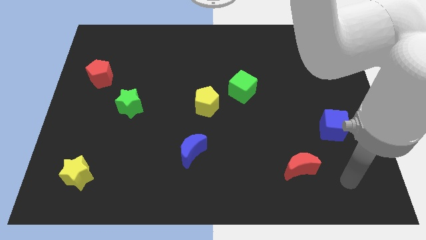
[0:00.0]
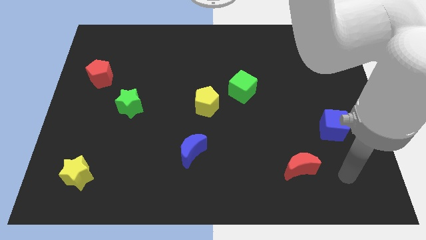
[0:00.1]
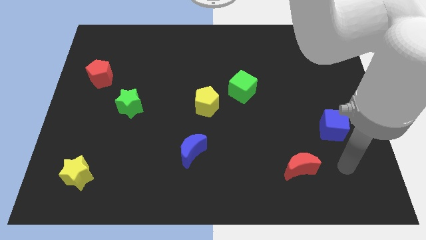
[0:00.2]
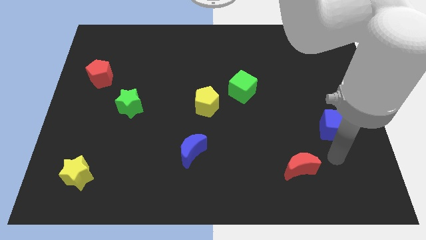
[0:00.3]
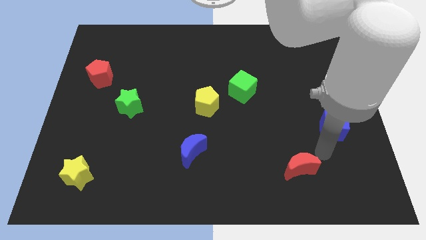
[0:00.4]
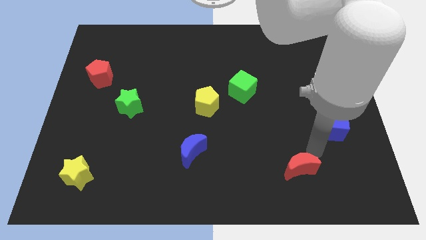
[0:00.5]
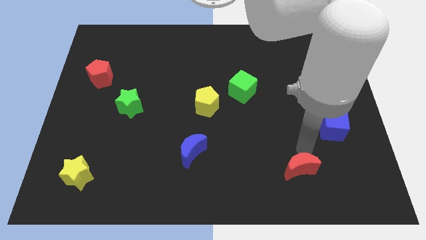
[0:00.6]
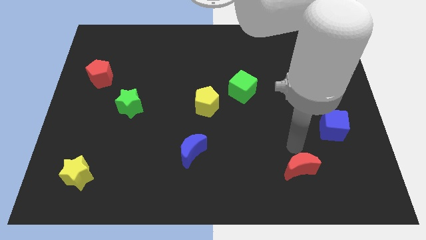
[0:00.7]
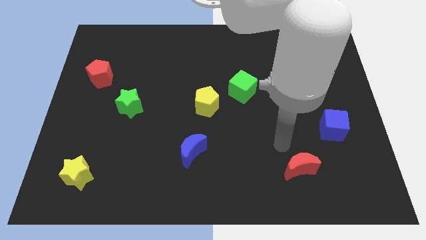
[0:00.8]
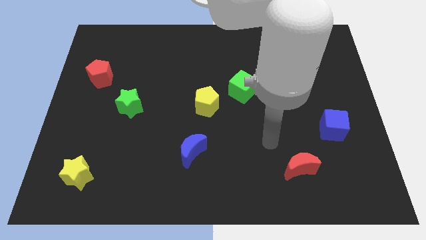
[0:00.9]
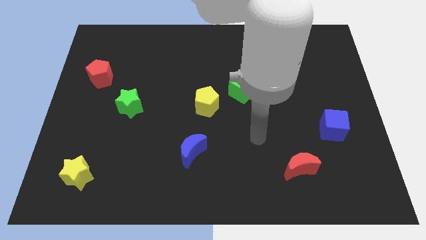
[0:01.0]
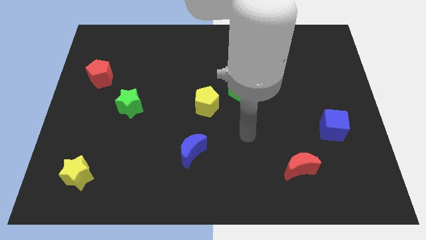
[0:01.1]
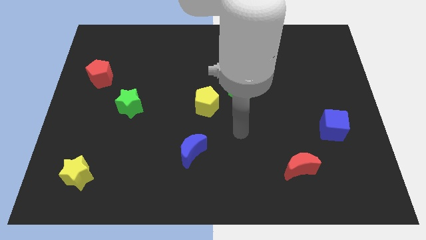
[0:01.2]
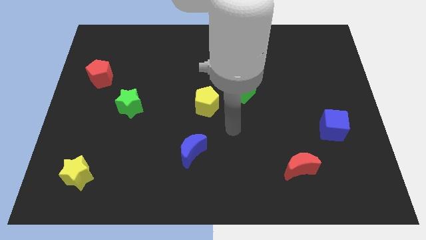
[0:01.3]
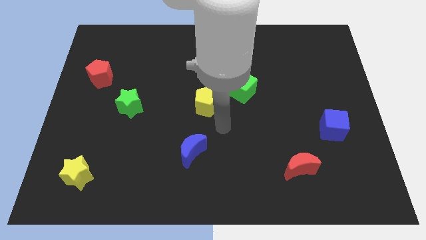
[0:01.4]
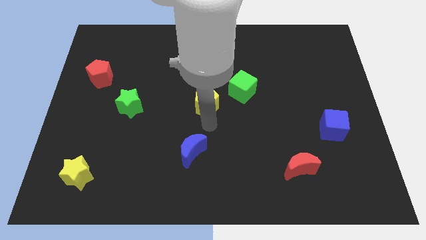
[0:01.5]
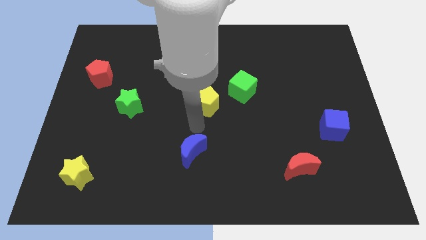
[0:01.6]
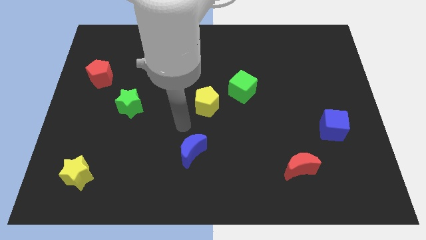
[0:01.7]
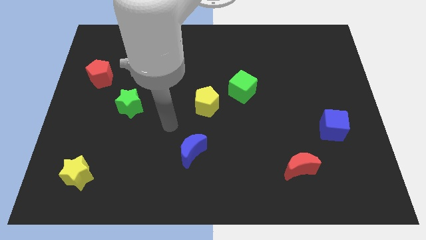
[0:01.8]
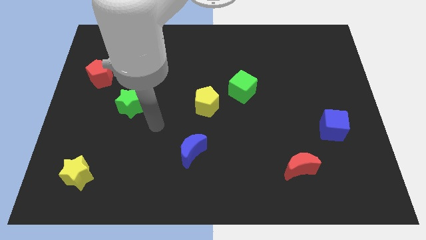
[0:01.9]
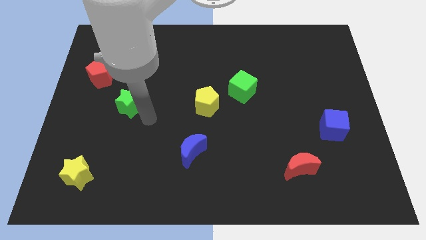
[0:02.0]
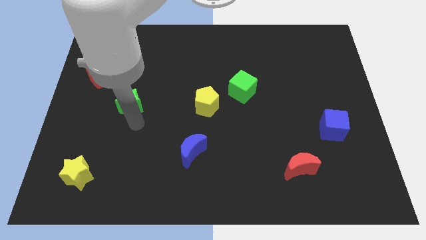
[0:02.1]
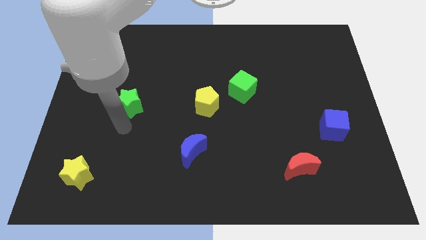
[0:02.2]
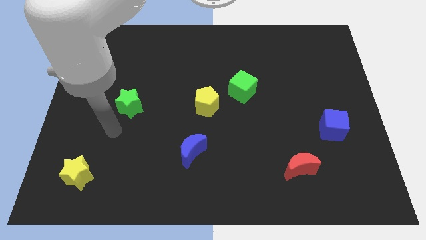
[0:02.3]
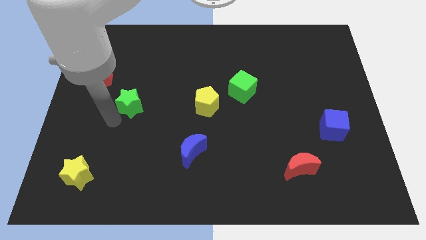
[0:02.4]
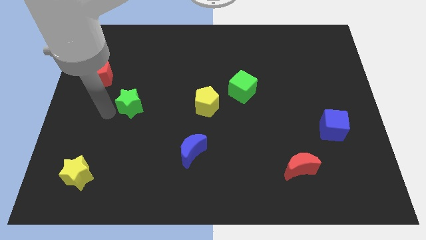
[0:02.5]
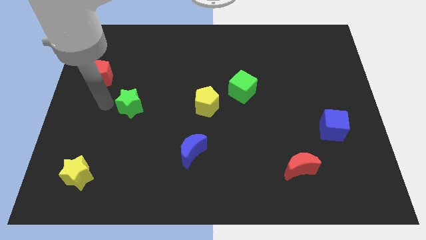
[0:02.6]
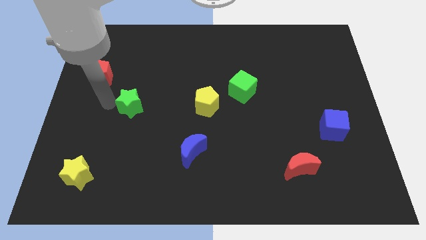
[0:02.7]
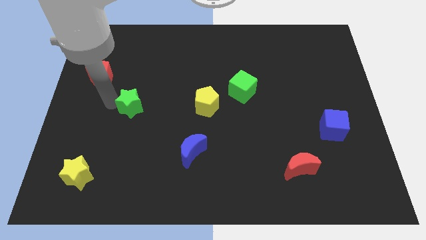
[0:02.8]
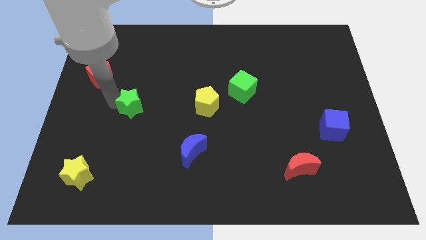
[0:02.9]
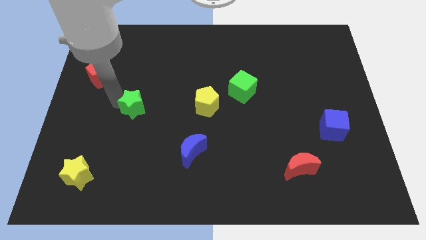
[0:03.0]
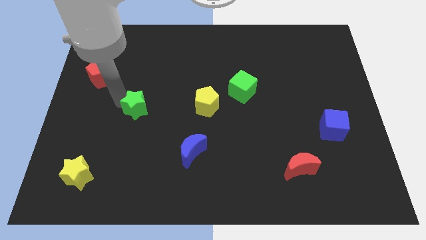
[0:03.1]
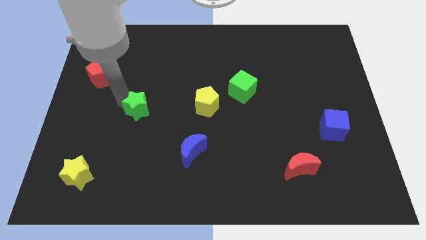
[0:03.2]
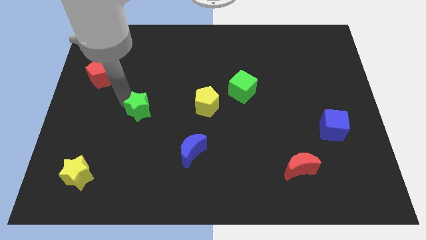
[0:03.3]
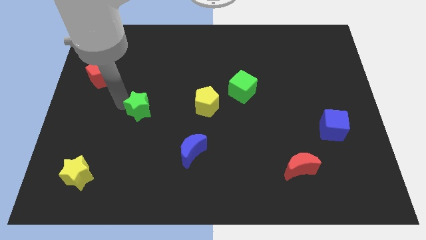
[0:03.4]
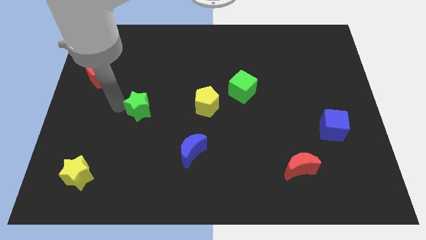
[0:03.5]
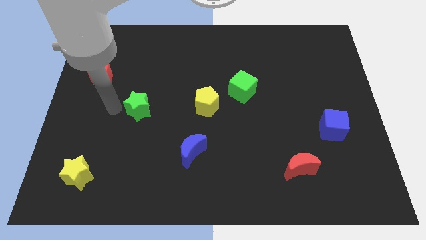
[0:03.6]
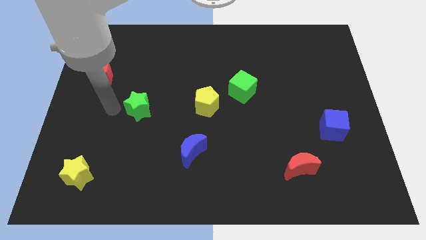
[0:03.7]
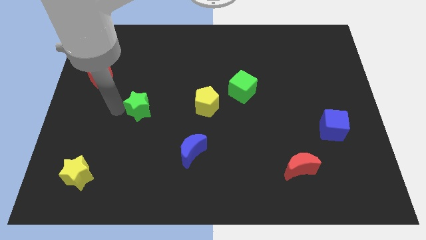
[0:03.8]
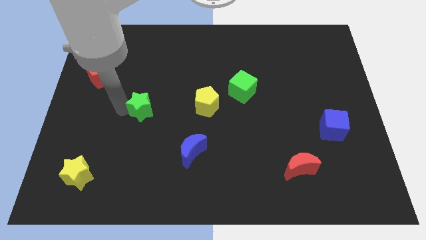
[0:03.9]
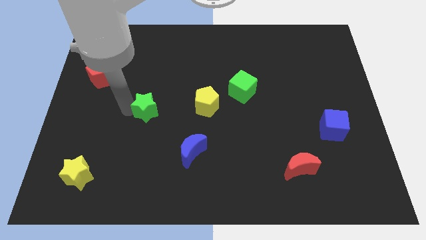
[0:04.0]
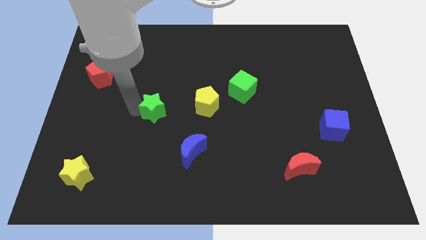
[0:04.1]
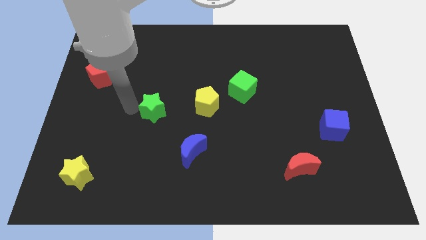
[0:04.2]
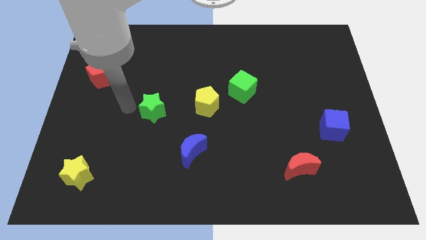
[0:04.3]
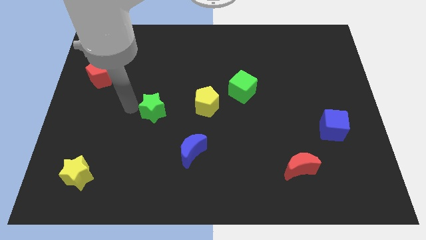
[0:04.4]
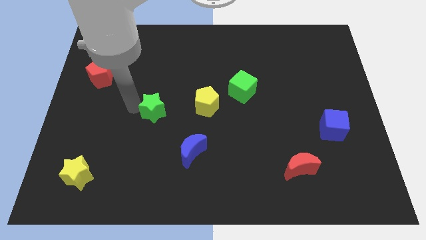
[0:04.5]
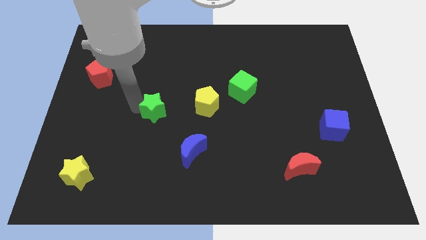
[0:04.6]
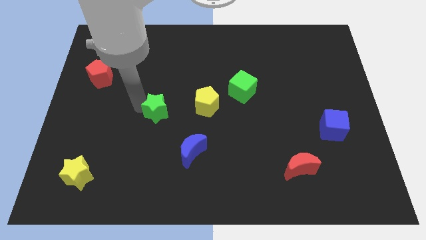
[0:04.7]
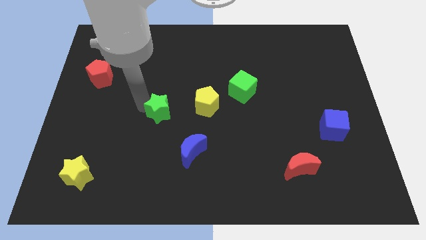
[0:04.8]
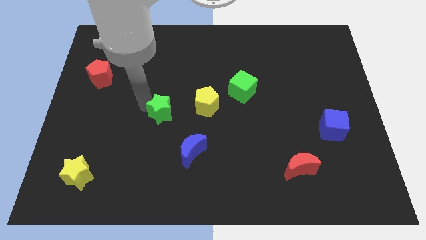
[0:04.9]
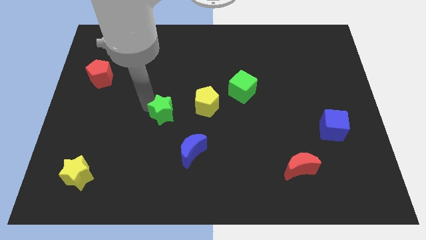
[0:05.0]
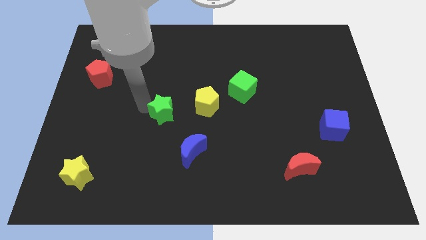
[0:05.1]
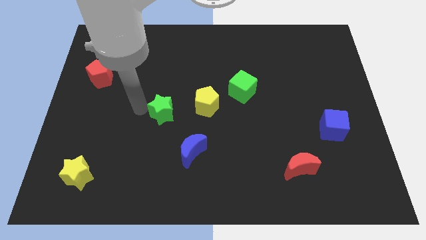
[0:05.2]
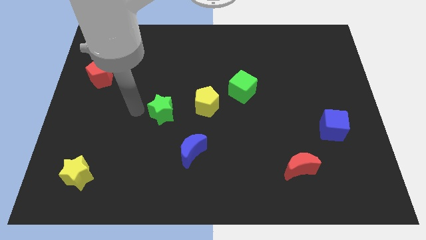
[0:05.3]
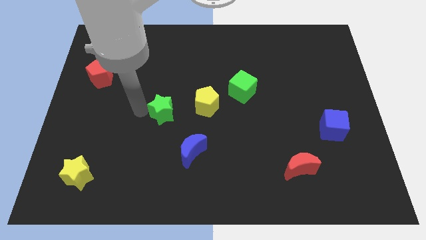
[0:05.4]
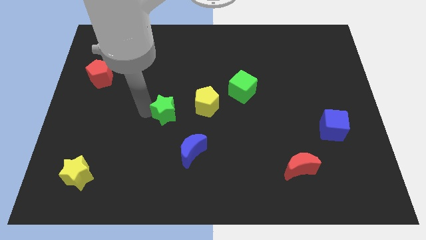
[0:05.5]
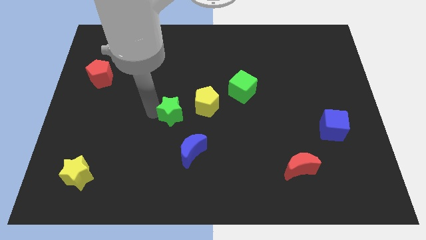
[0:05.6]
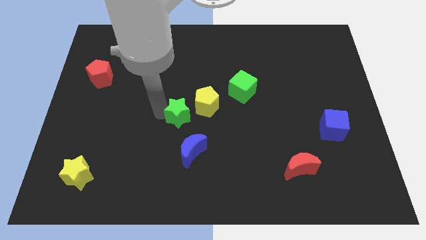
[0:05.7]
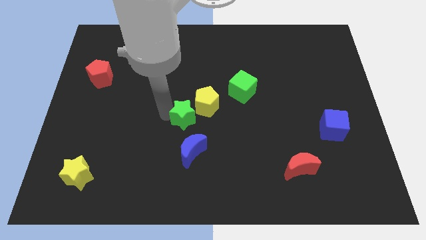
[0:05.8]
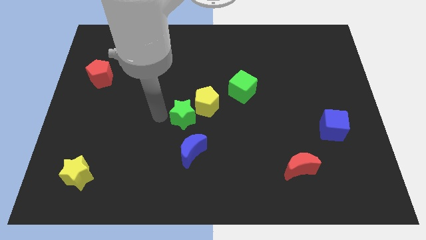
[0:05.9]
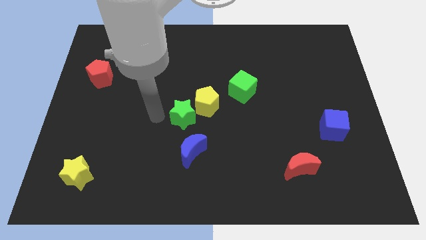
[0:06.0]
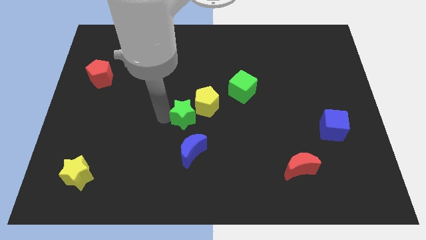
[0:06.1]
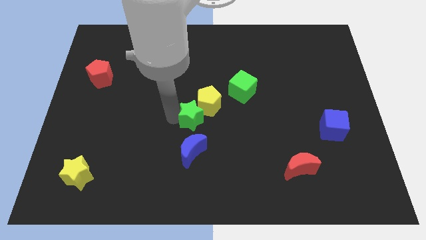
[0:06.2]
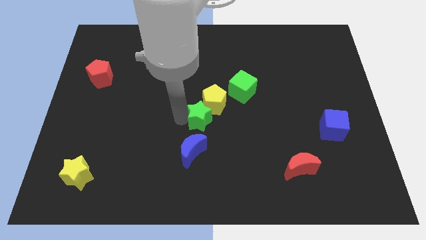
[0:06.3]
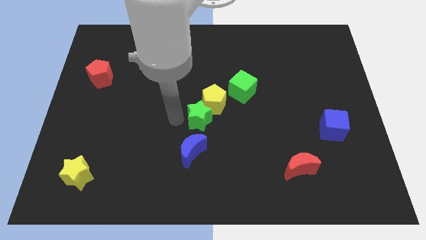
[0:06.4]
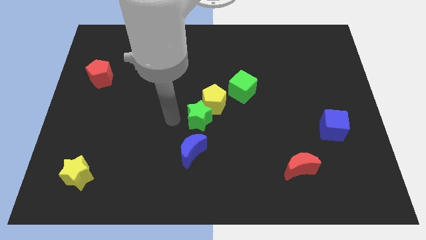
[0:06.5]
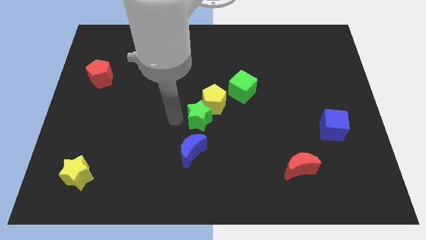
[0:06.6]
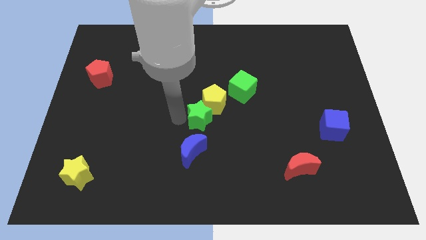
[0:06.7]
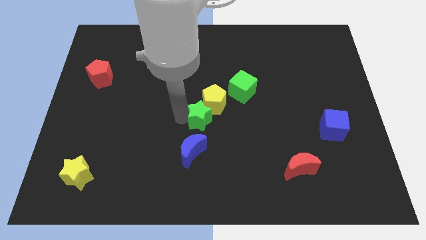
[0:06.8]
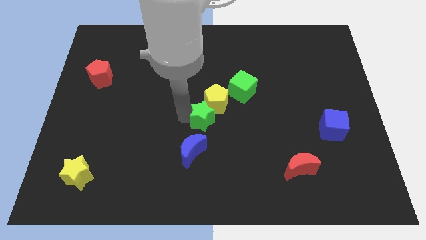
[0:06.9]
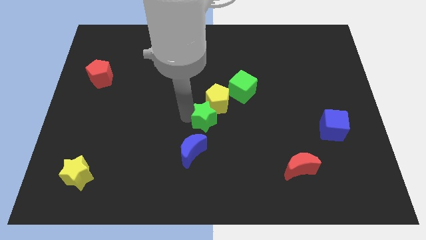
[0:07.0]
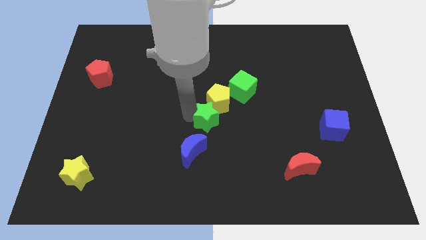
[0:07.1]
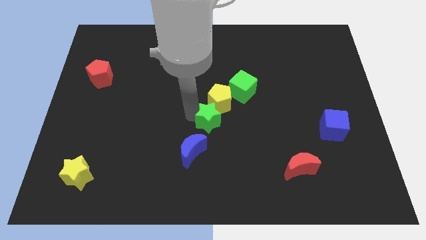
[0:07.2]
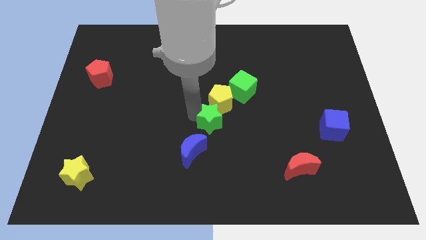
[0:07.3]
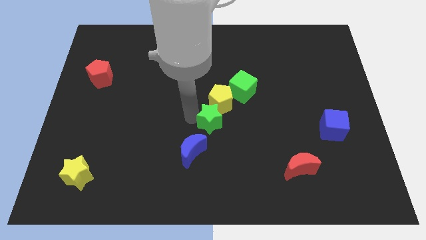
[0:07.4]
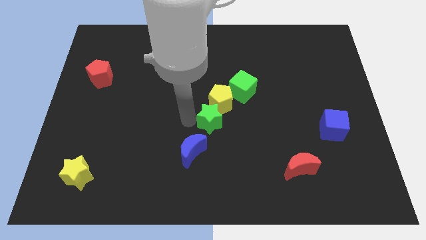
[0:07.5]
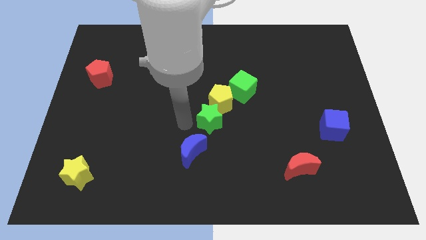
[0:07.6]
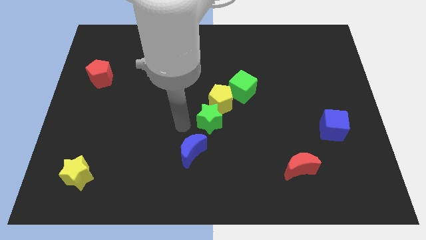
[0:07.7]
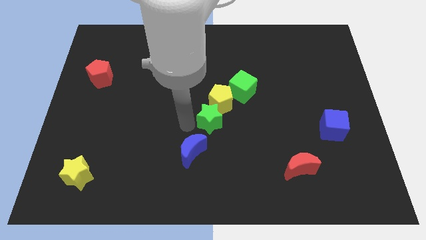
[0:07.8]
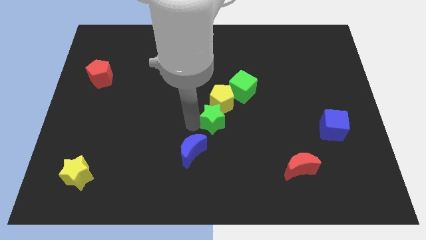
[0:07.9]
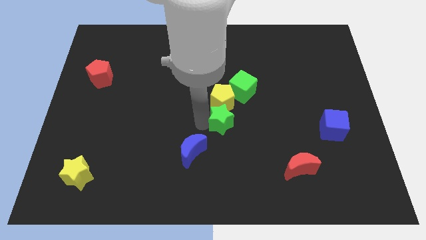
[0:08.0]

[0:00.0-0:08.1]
move the green star to the right
